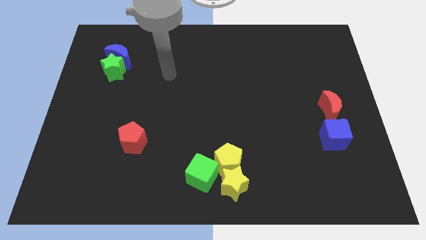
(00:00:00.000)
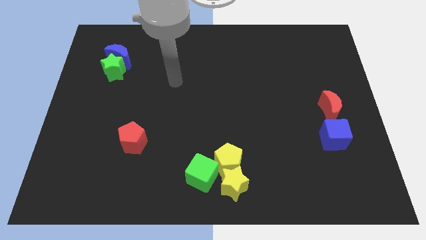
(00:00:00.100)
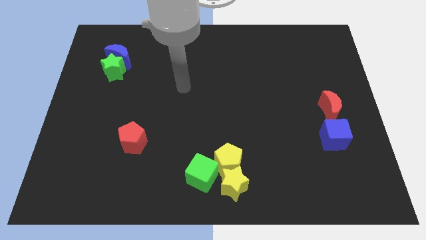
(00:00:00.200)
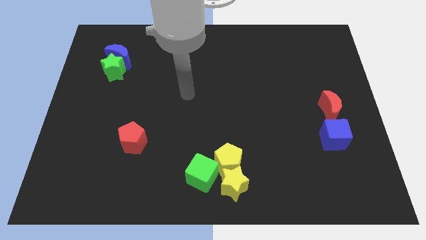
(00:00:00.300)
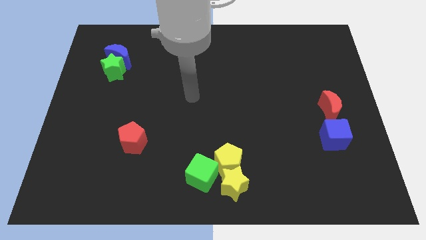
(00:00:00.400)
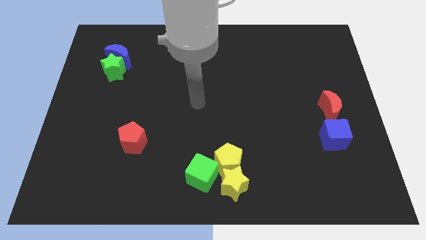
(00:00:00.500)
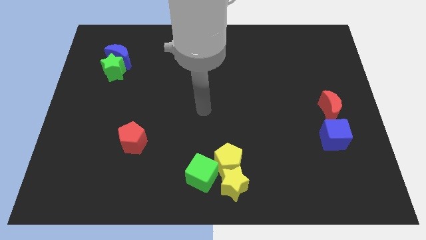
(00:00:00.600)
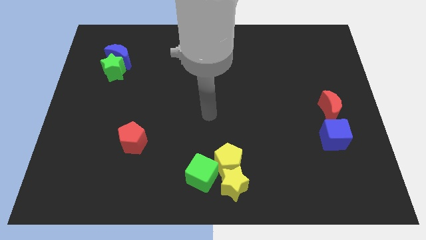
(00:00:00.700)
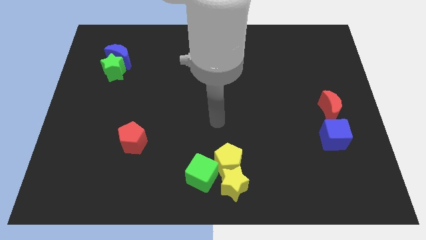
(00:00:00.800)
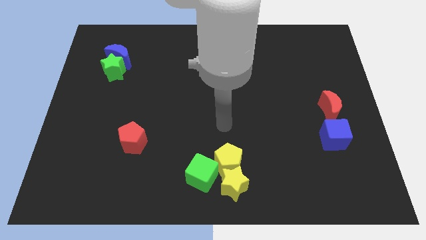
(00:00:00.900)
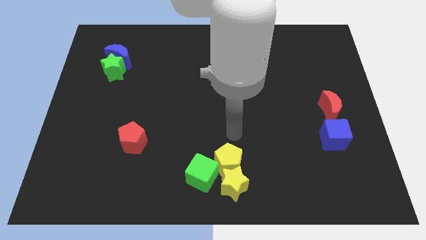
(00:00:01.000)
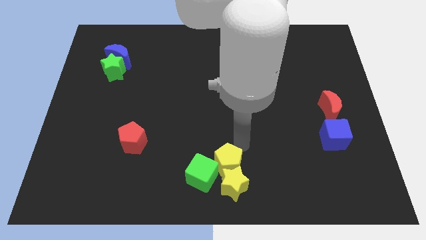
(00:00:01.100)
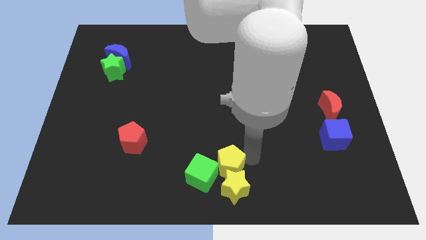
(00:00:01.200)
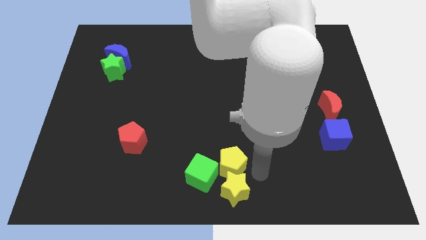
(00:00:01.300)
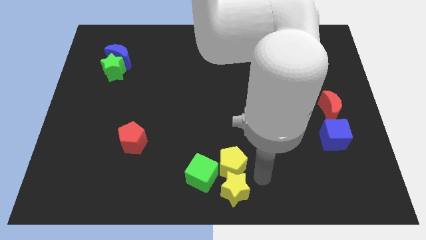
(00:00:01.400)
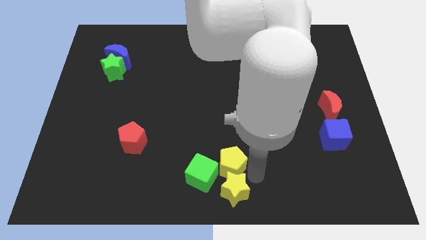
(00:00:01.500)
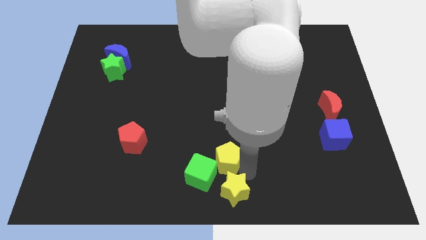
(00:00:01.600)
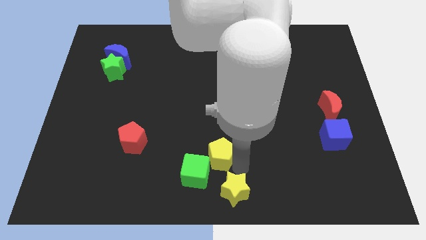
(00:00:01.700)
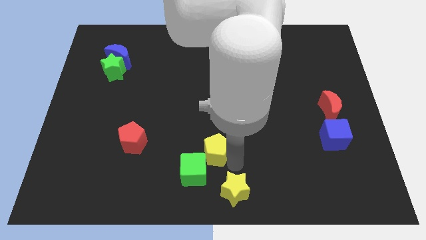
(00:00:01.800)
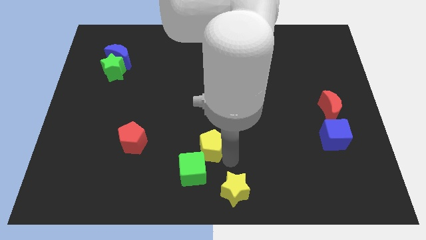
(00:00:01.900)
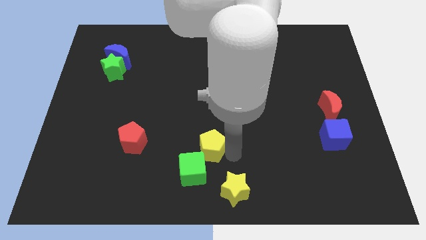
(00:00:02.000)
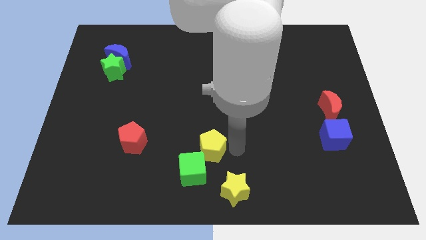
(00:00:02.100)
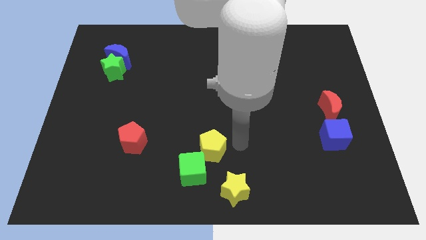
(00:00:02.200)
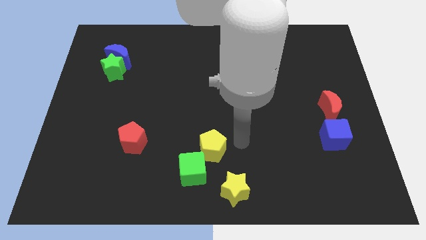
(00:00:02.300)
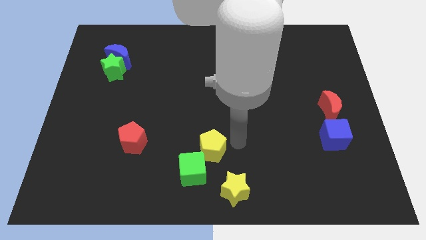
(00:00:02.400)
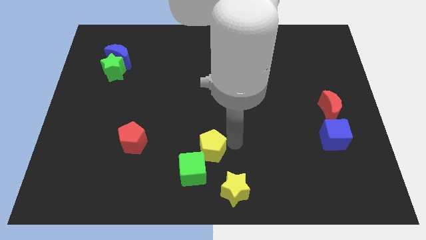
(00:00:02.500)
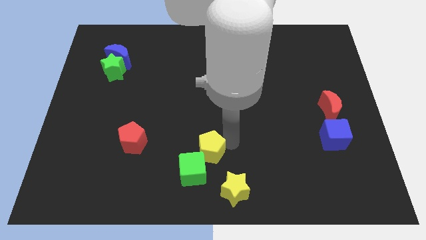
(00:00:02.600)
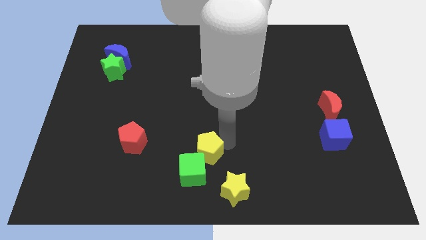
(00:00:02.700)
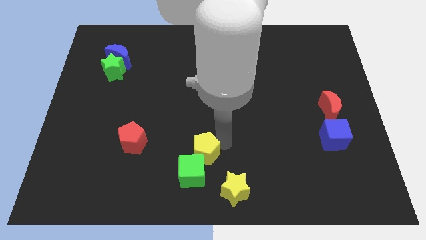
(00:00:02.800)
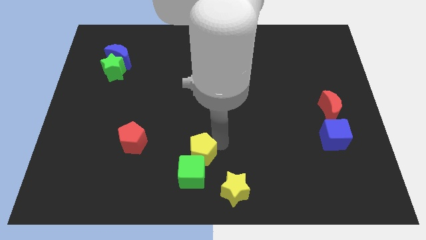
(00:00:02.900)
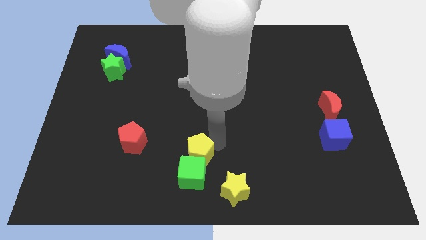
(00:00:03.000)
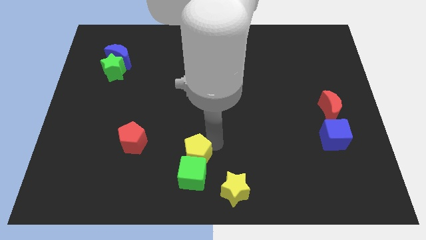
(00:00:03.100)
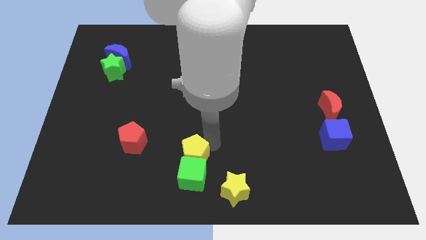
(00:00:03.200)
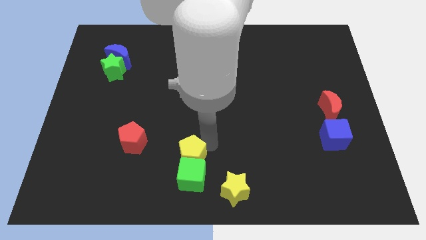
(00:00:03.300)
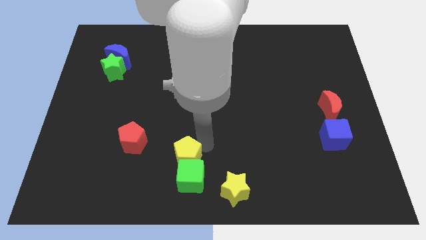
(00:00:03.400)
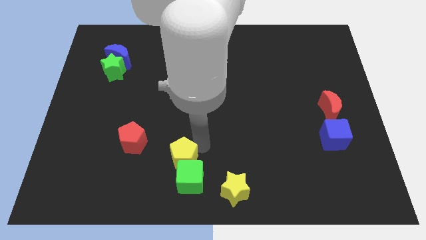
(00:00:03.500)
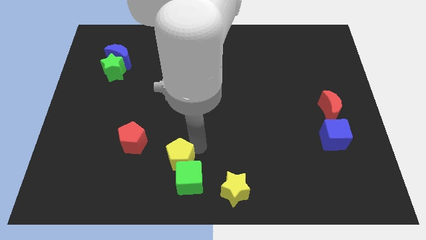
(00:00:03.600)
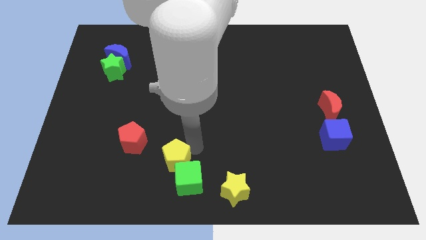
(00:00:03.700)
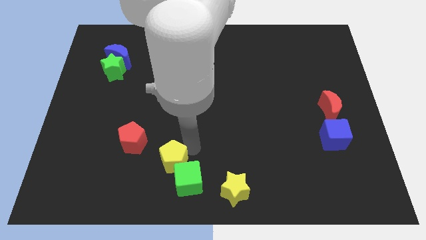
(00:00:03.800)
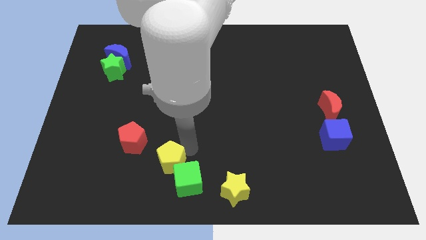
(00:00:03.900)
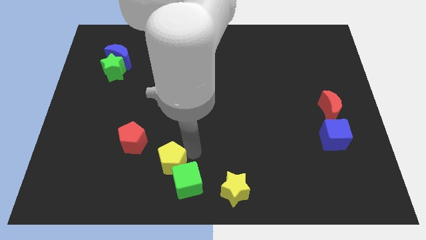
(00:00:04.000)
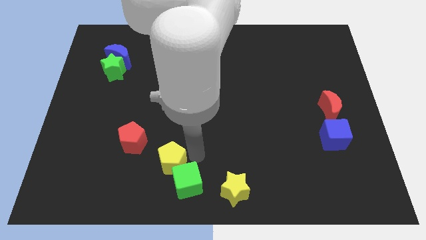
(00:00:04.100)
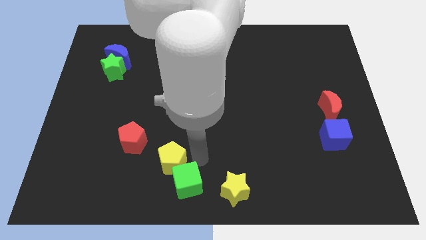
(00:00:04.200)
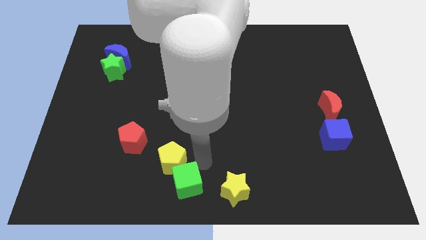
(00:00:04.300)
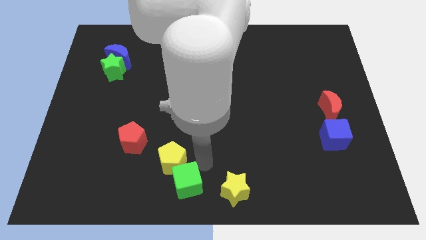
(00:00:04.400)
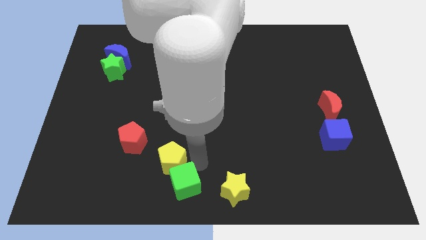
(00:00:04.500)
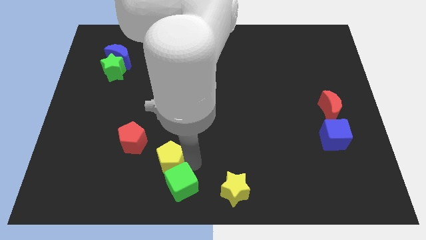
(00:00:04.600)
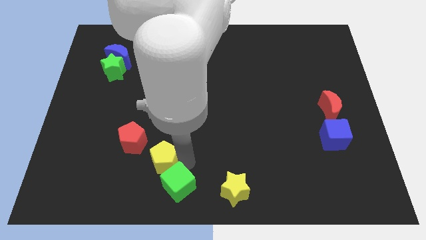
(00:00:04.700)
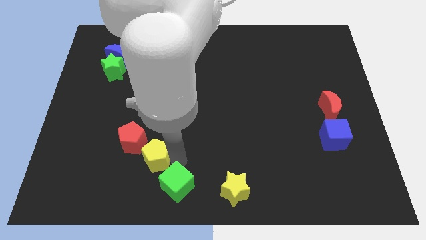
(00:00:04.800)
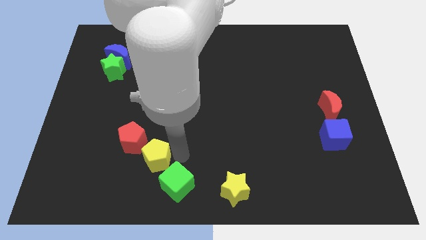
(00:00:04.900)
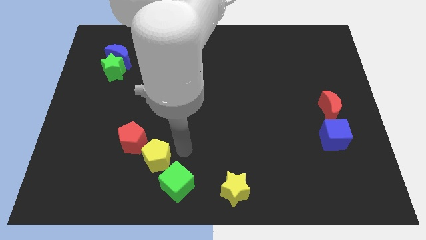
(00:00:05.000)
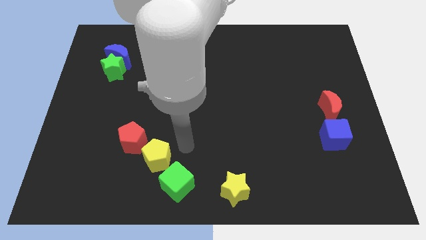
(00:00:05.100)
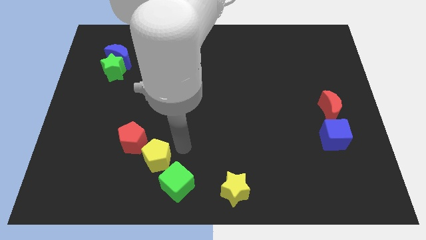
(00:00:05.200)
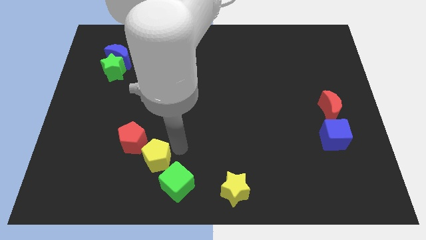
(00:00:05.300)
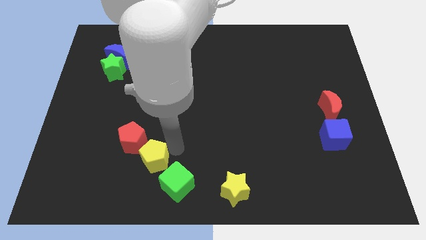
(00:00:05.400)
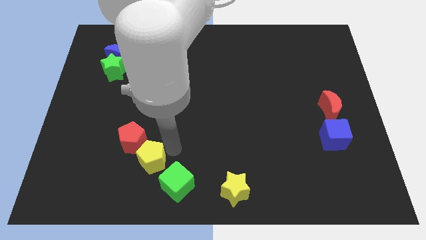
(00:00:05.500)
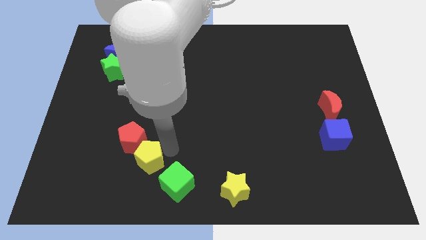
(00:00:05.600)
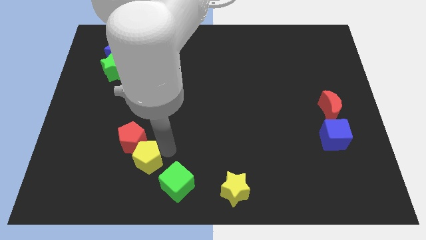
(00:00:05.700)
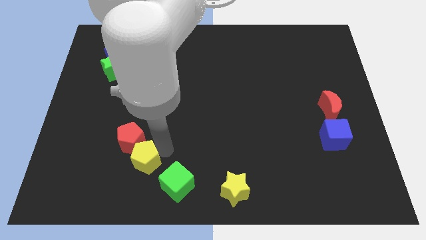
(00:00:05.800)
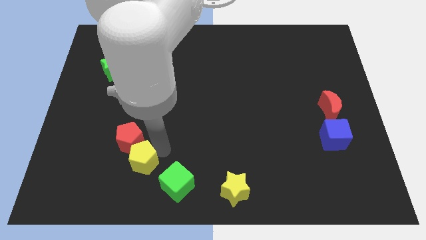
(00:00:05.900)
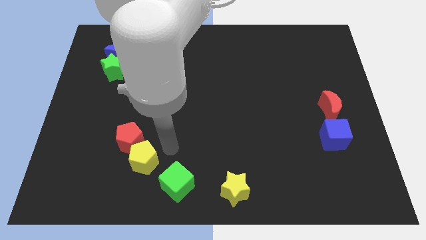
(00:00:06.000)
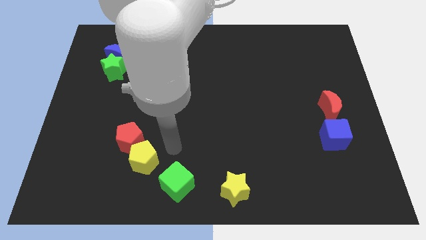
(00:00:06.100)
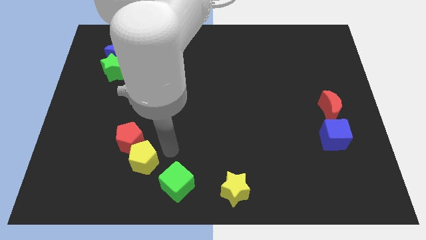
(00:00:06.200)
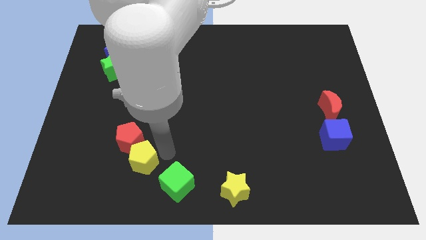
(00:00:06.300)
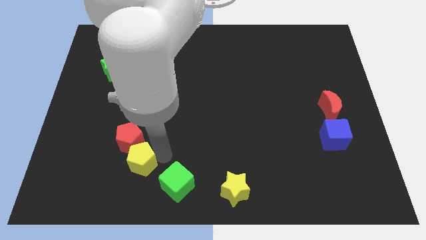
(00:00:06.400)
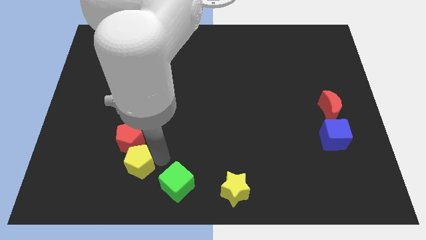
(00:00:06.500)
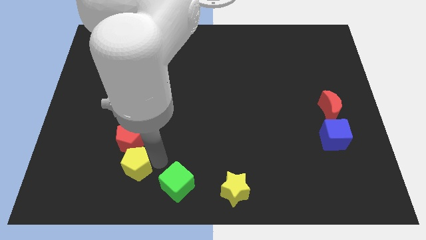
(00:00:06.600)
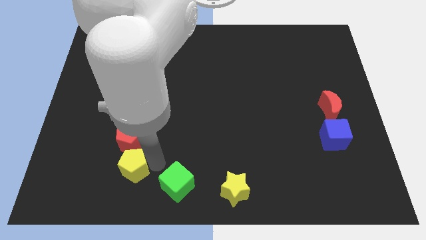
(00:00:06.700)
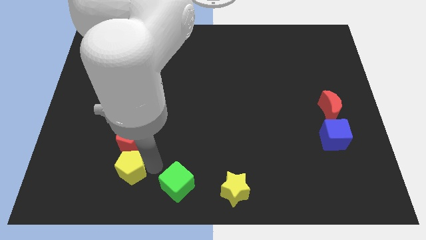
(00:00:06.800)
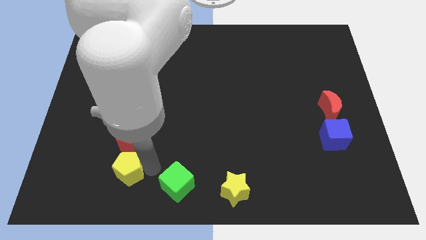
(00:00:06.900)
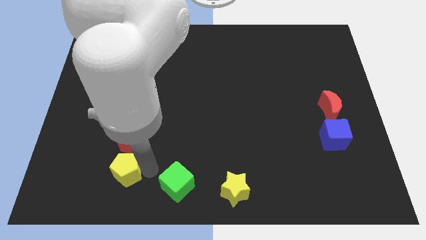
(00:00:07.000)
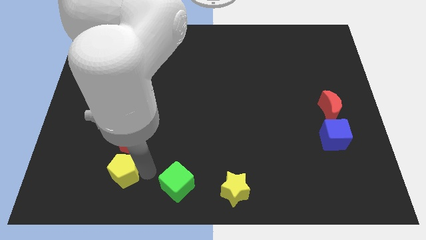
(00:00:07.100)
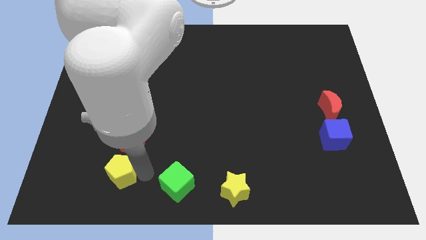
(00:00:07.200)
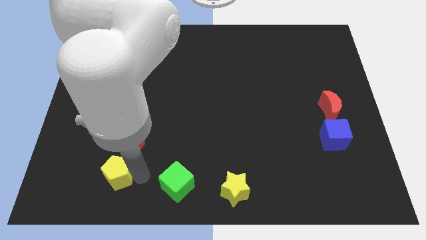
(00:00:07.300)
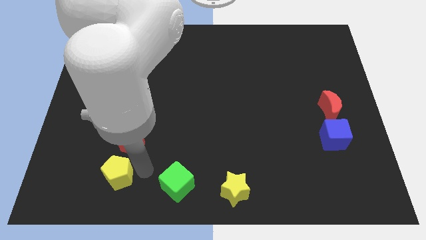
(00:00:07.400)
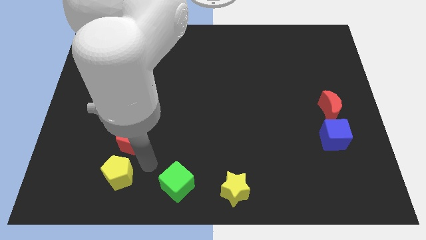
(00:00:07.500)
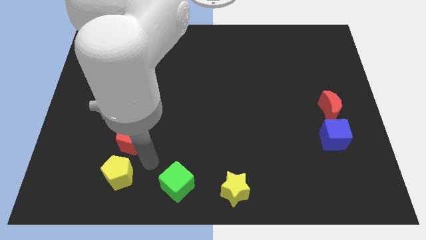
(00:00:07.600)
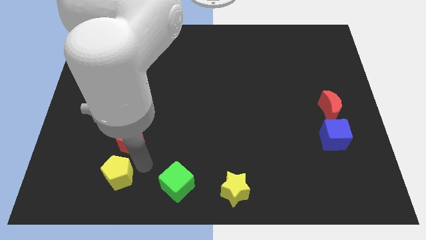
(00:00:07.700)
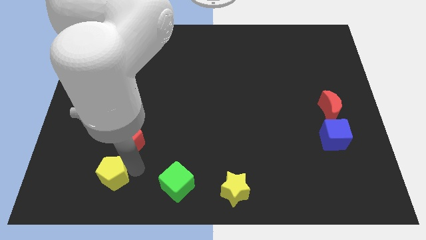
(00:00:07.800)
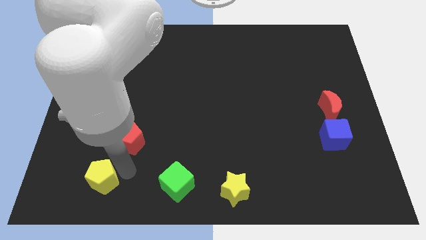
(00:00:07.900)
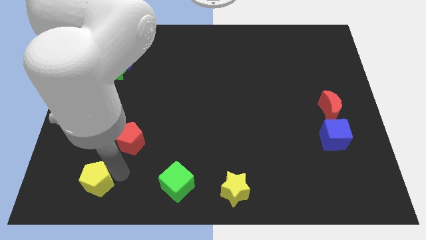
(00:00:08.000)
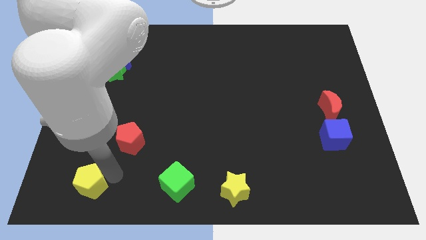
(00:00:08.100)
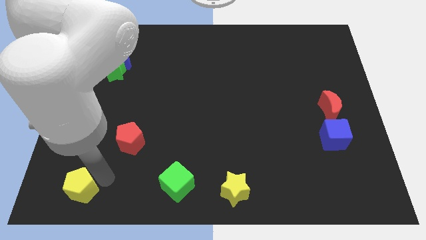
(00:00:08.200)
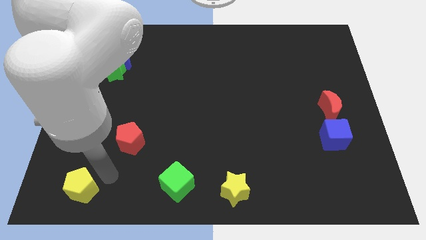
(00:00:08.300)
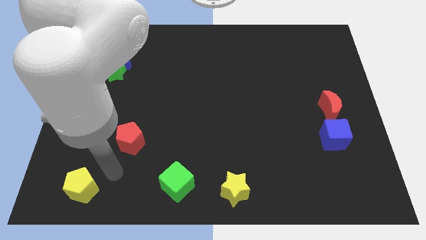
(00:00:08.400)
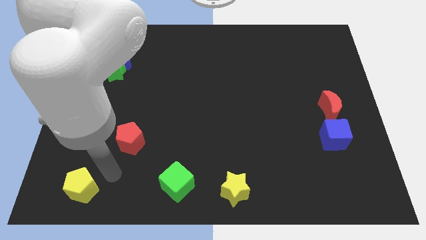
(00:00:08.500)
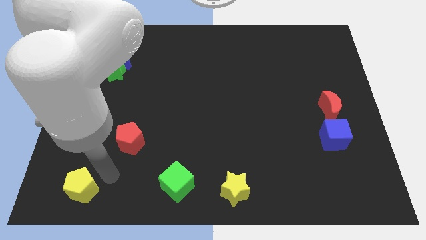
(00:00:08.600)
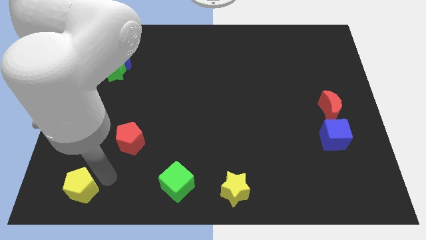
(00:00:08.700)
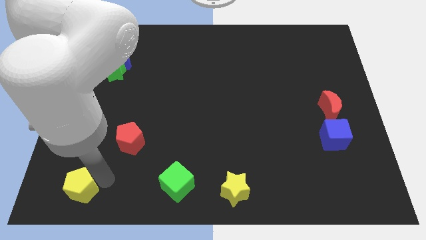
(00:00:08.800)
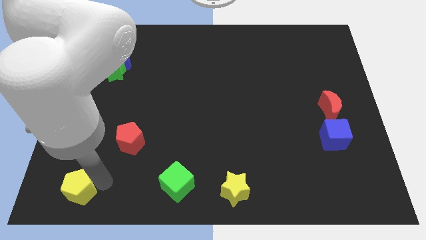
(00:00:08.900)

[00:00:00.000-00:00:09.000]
slide the yellow pentagon to the bottom left
